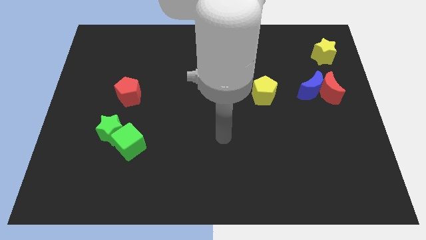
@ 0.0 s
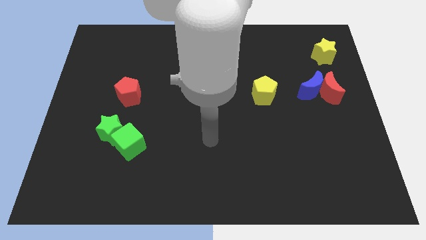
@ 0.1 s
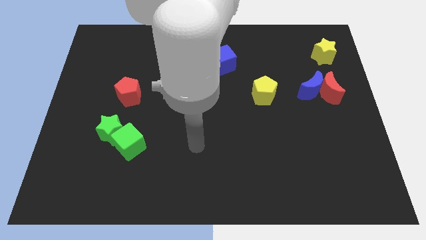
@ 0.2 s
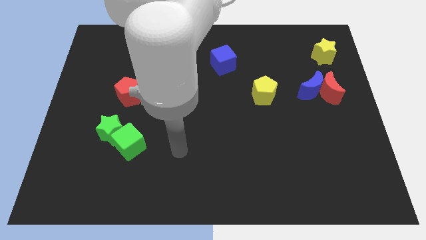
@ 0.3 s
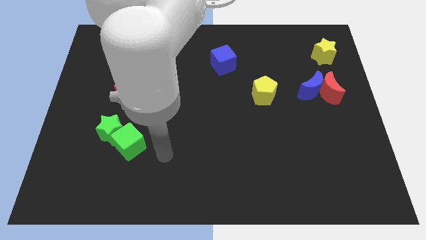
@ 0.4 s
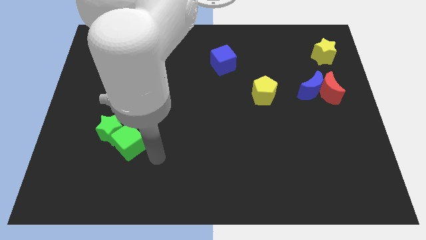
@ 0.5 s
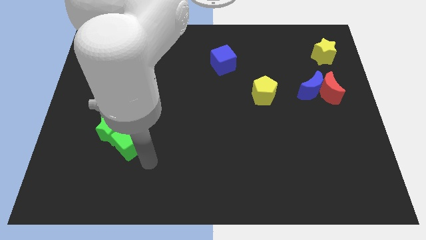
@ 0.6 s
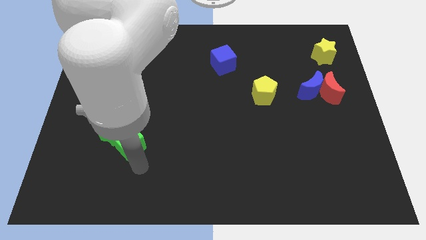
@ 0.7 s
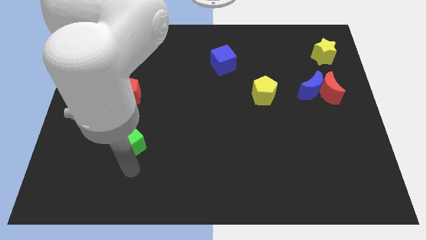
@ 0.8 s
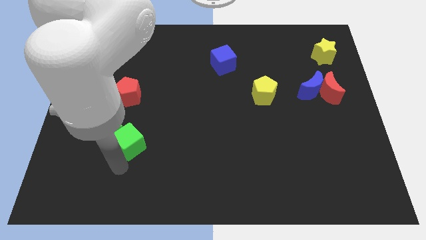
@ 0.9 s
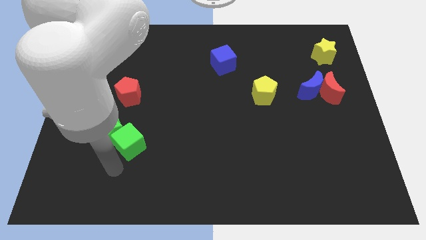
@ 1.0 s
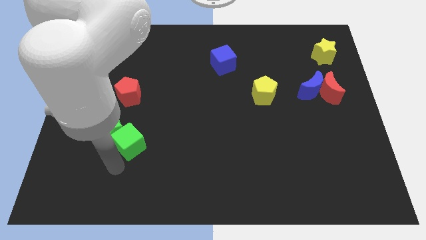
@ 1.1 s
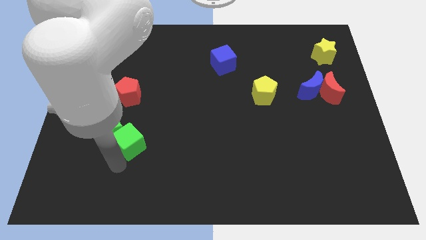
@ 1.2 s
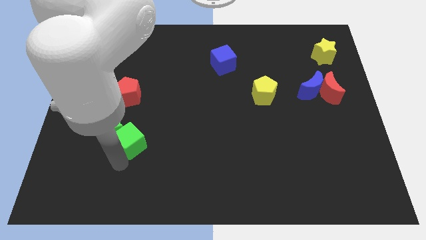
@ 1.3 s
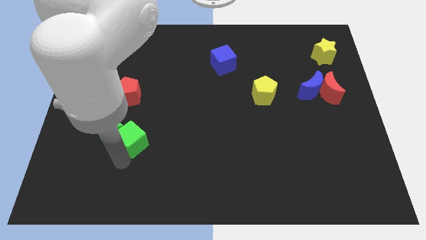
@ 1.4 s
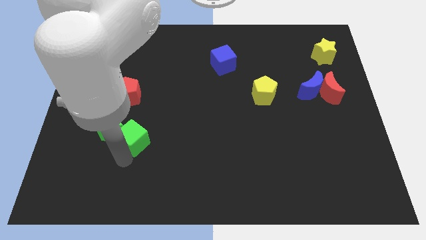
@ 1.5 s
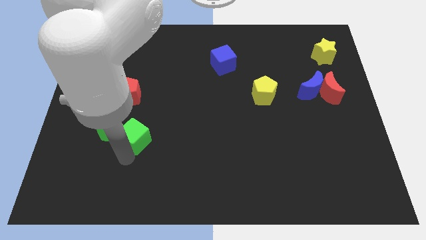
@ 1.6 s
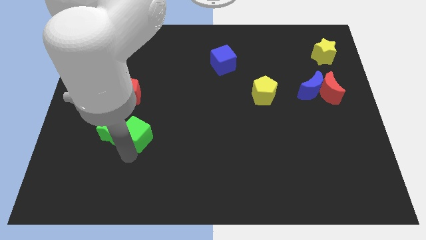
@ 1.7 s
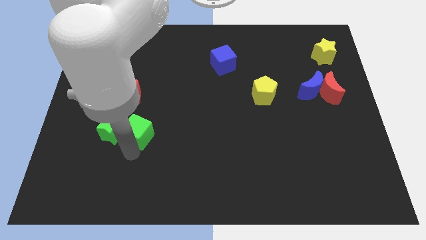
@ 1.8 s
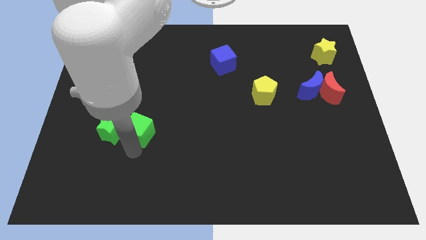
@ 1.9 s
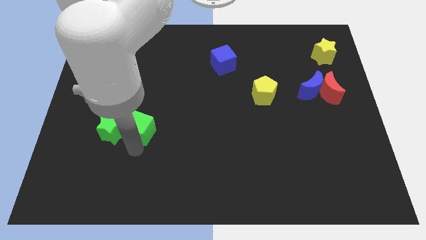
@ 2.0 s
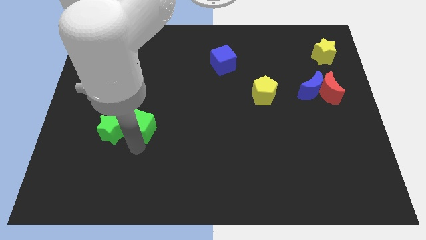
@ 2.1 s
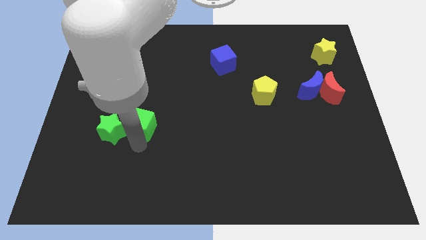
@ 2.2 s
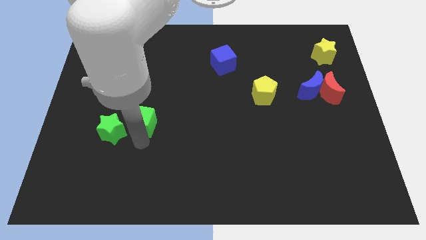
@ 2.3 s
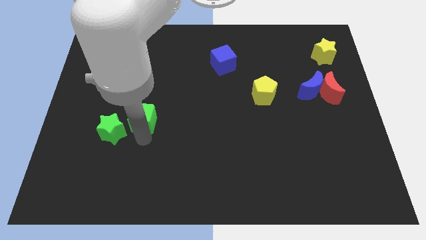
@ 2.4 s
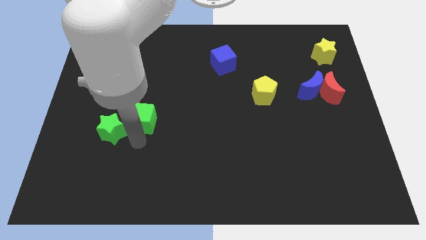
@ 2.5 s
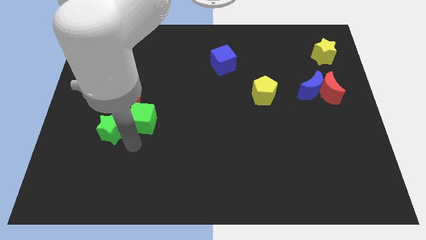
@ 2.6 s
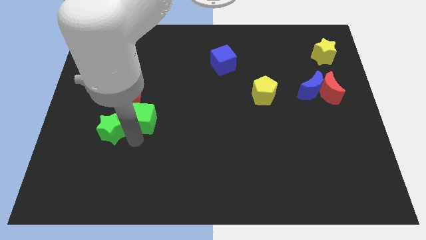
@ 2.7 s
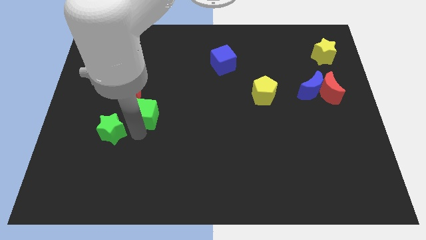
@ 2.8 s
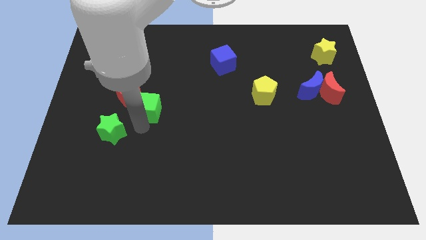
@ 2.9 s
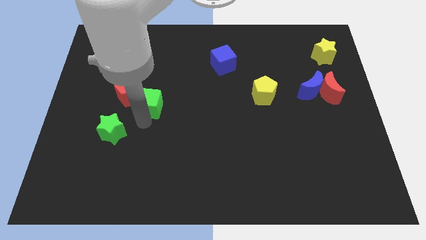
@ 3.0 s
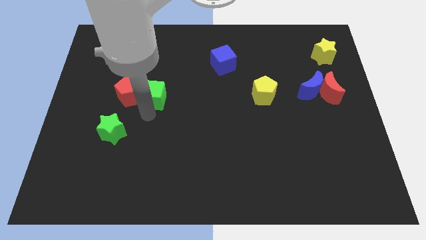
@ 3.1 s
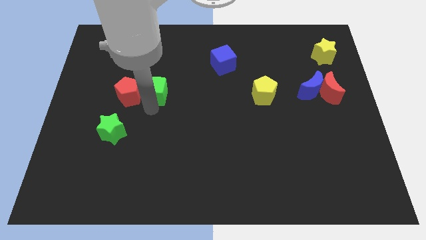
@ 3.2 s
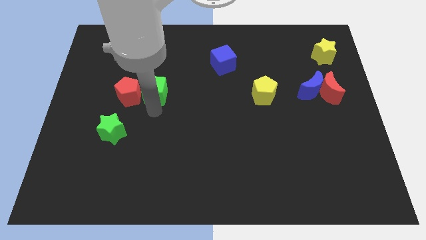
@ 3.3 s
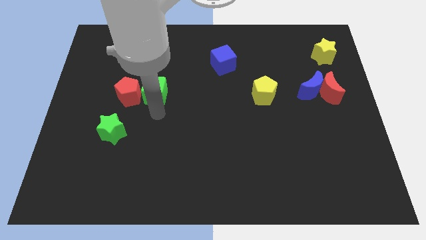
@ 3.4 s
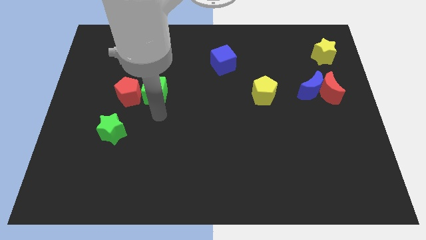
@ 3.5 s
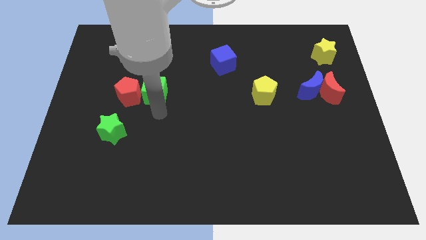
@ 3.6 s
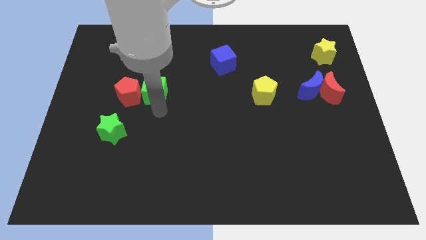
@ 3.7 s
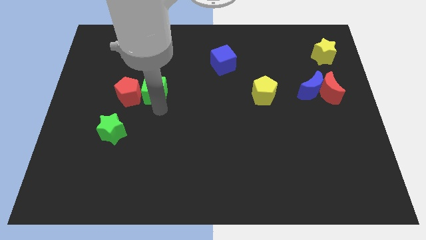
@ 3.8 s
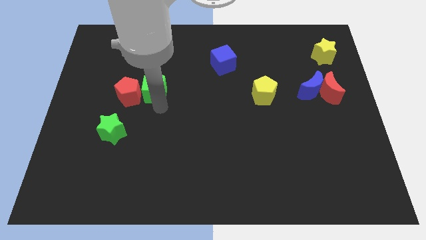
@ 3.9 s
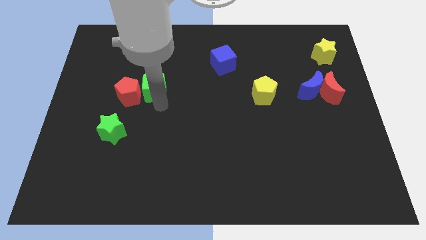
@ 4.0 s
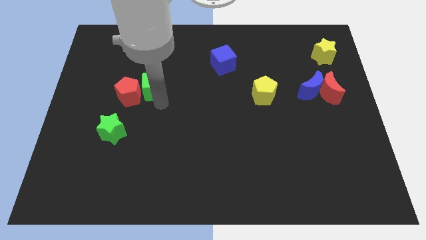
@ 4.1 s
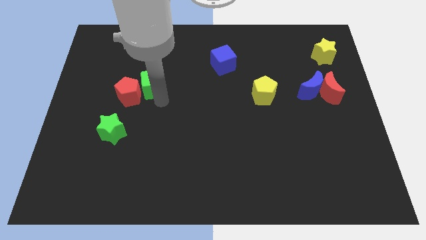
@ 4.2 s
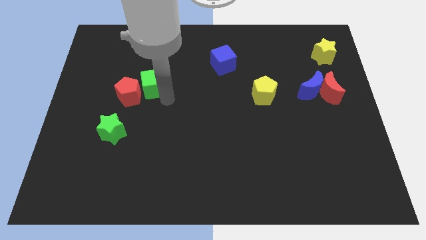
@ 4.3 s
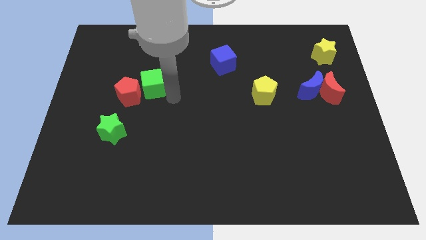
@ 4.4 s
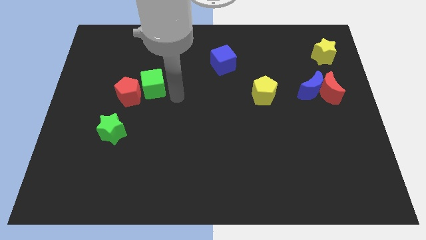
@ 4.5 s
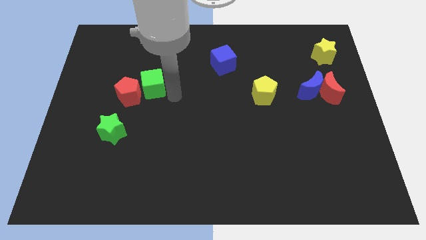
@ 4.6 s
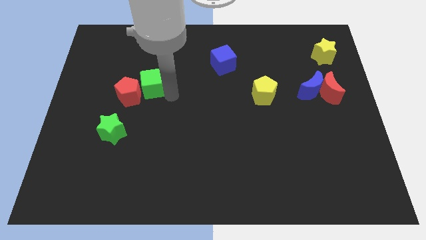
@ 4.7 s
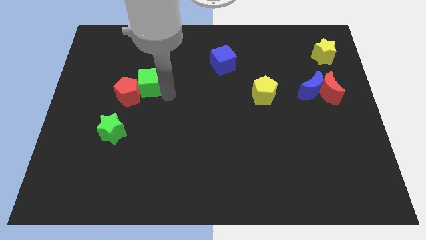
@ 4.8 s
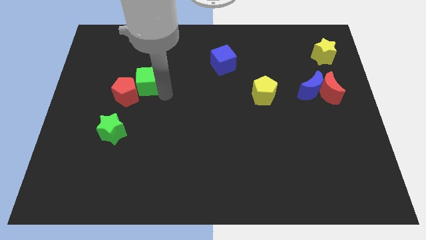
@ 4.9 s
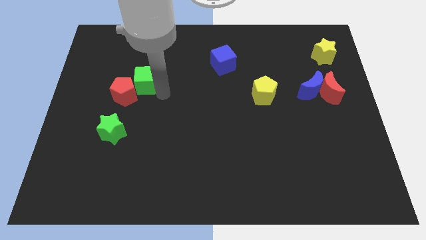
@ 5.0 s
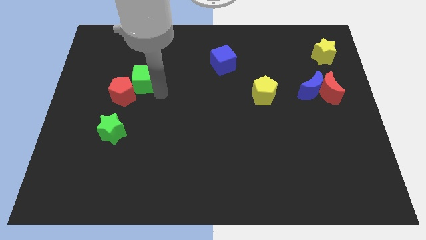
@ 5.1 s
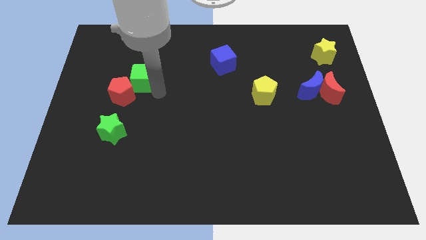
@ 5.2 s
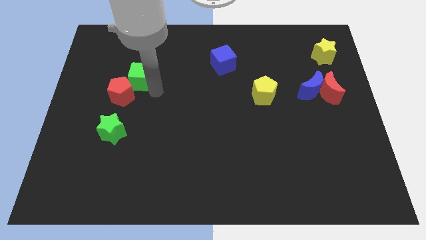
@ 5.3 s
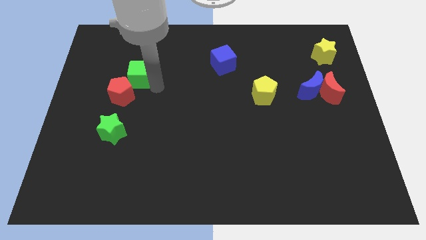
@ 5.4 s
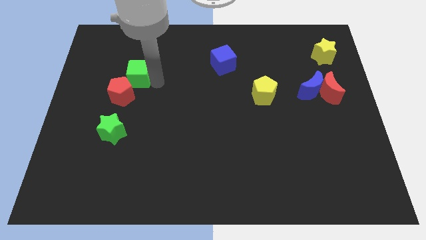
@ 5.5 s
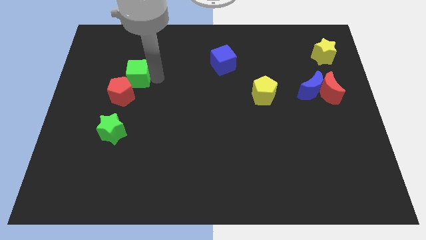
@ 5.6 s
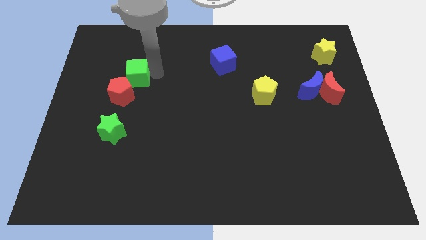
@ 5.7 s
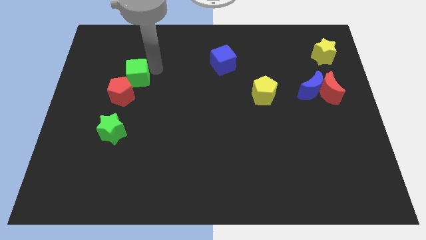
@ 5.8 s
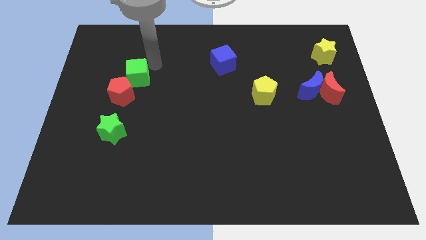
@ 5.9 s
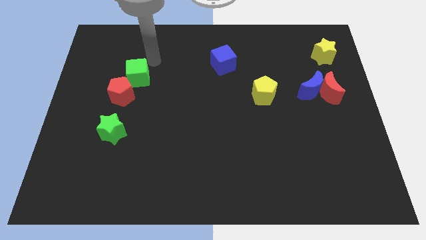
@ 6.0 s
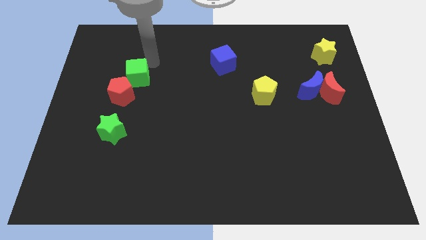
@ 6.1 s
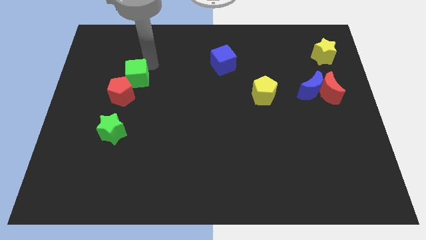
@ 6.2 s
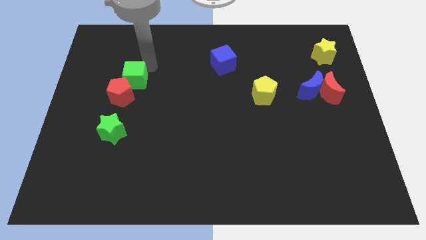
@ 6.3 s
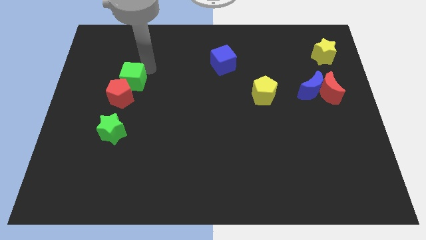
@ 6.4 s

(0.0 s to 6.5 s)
move the green cube above the green star

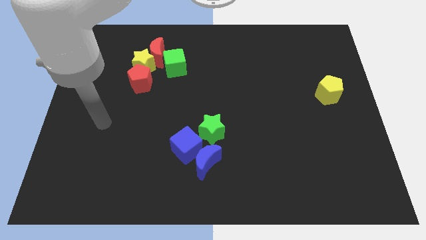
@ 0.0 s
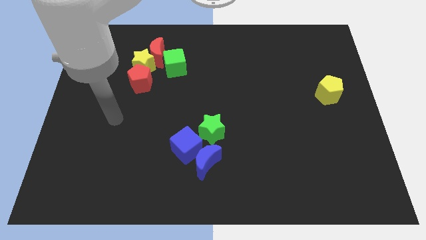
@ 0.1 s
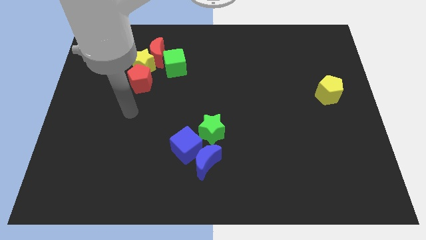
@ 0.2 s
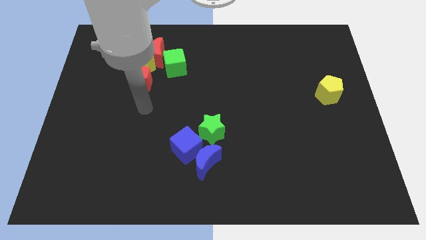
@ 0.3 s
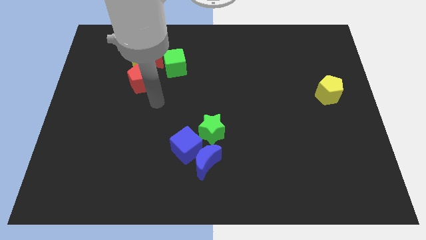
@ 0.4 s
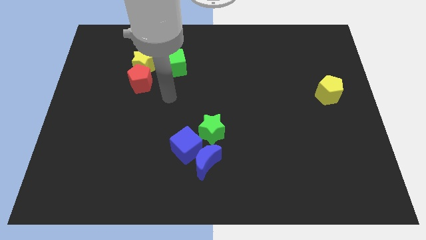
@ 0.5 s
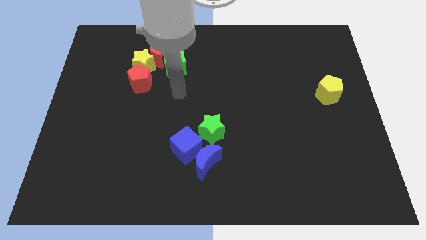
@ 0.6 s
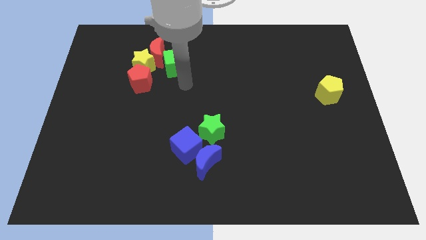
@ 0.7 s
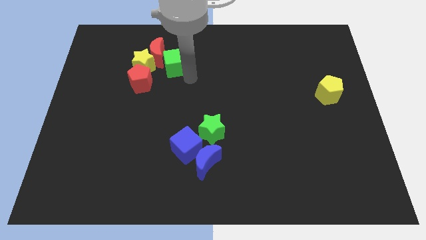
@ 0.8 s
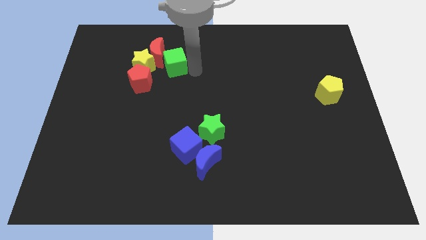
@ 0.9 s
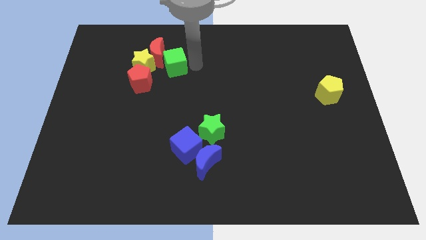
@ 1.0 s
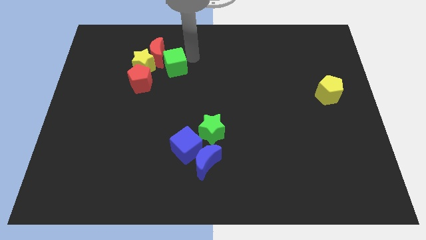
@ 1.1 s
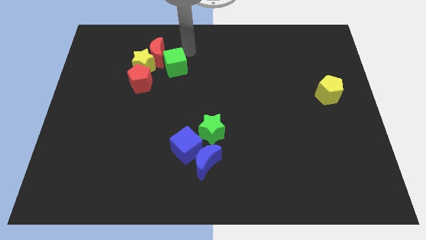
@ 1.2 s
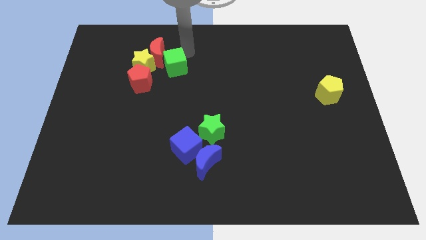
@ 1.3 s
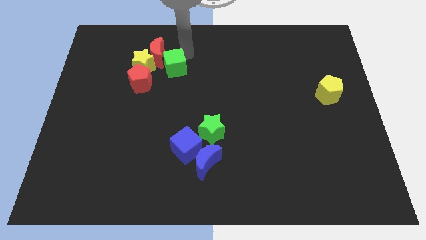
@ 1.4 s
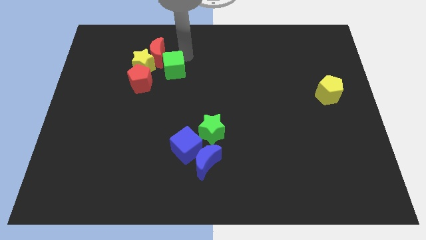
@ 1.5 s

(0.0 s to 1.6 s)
move the green cube to the bottom right side of the yellow star
